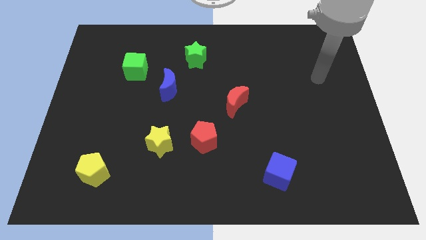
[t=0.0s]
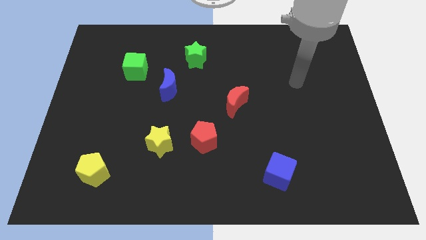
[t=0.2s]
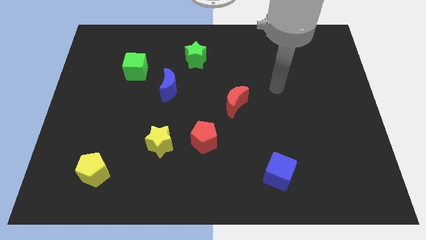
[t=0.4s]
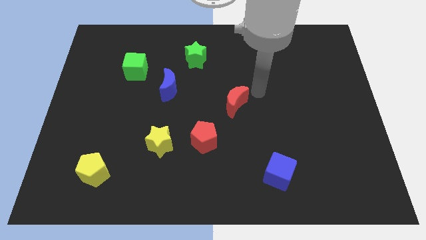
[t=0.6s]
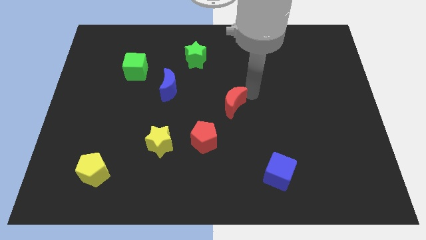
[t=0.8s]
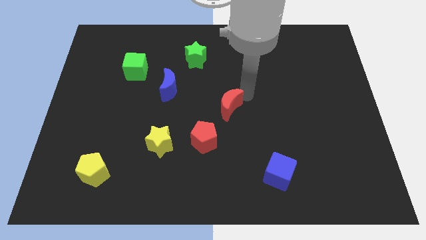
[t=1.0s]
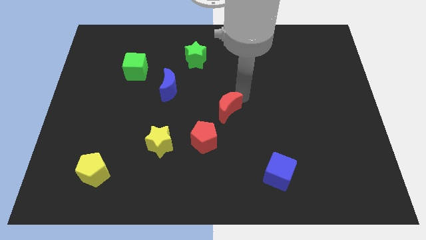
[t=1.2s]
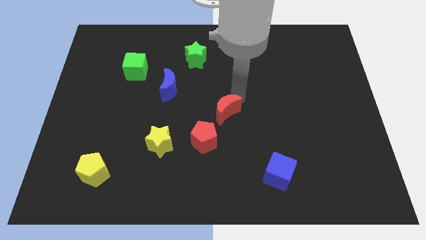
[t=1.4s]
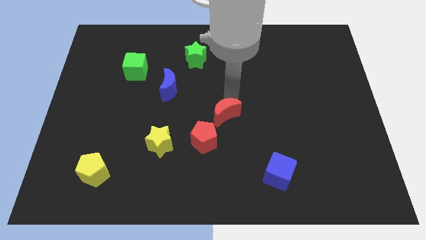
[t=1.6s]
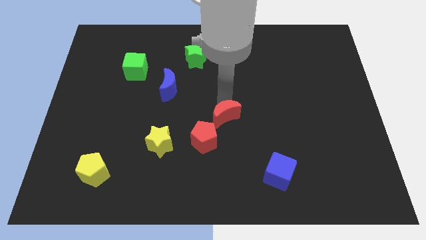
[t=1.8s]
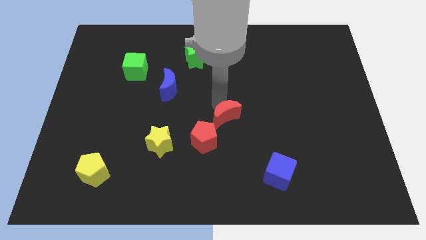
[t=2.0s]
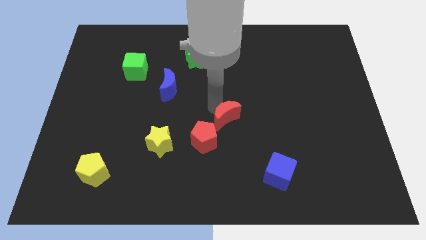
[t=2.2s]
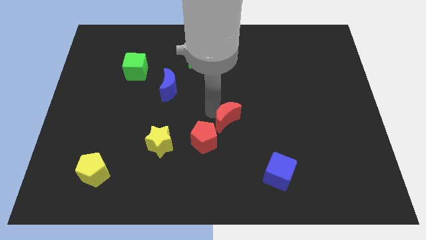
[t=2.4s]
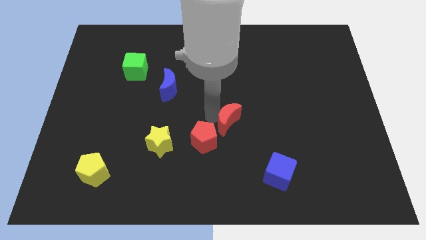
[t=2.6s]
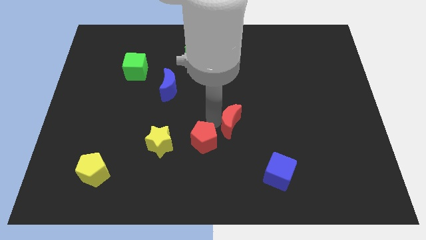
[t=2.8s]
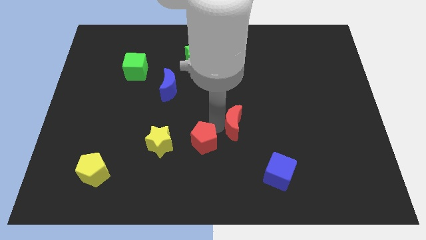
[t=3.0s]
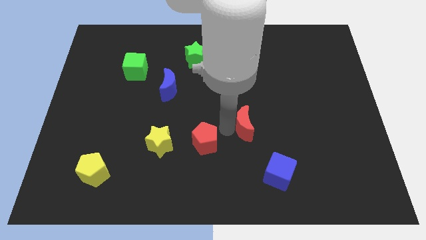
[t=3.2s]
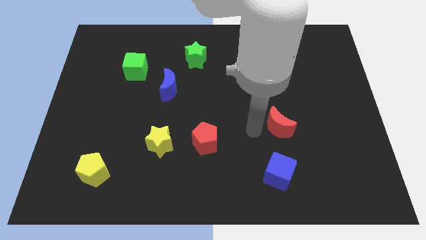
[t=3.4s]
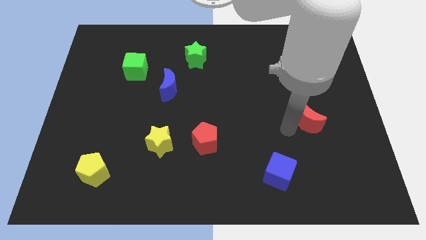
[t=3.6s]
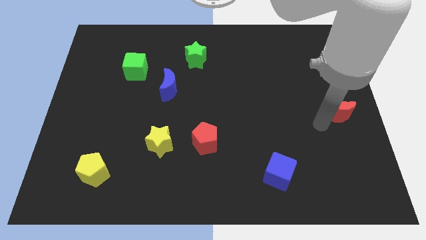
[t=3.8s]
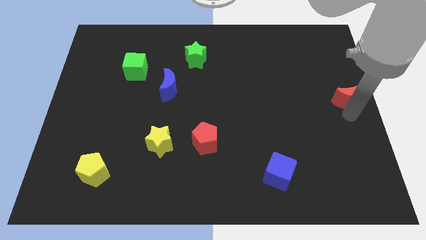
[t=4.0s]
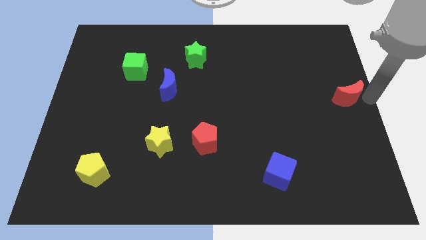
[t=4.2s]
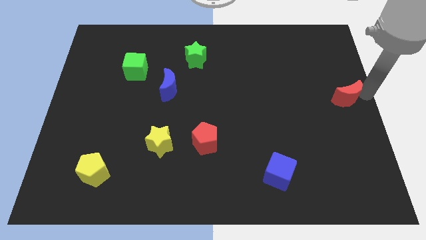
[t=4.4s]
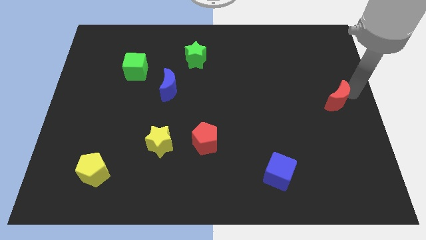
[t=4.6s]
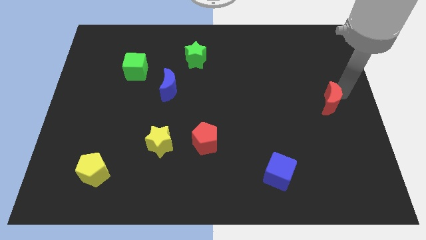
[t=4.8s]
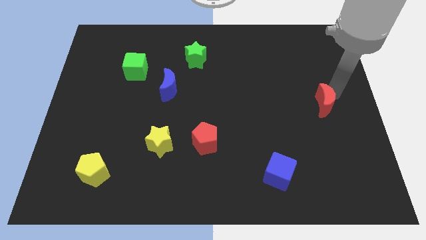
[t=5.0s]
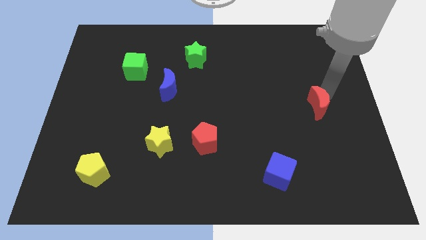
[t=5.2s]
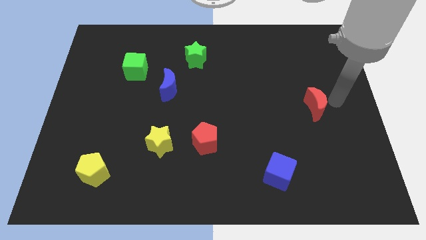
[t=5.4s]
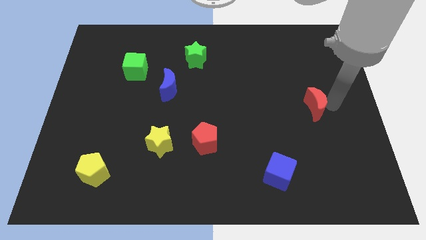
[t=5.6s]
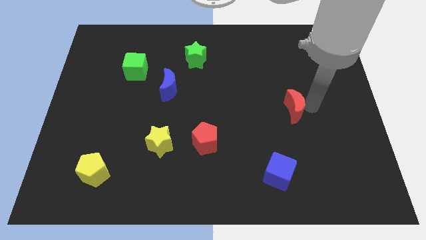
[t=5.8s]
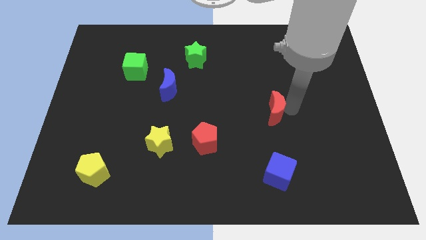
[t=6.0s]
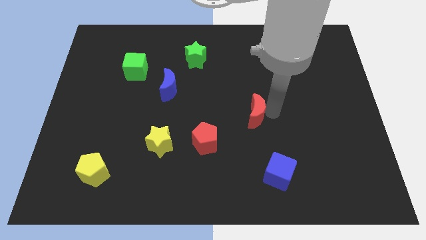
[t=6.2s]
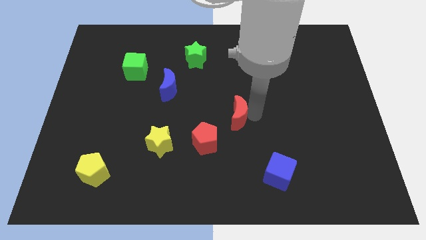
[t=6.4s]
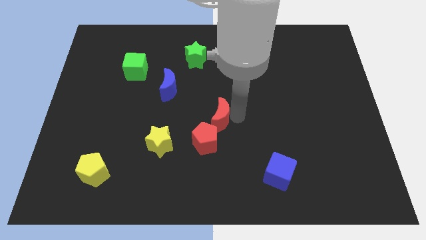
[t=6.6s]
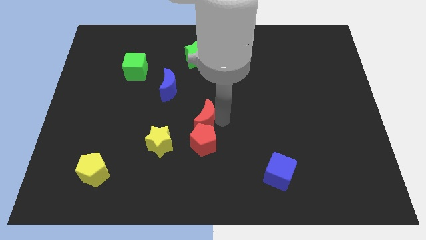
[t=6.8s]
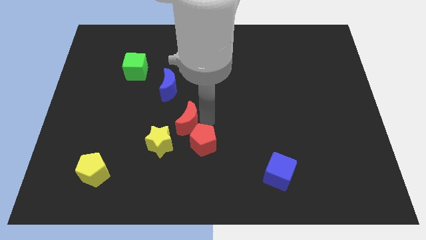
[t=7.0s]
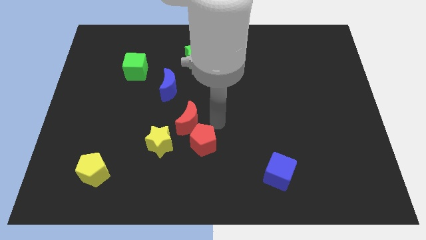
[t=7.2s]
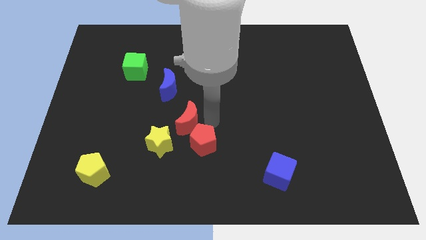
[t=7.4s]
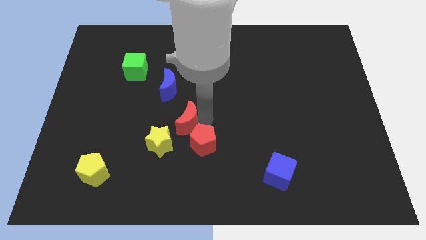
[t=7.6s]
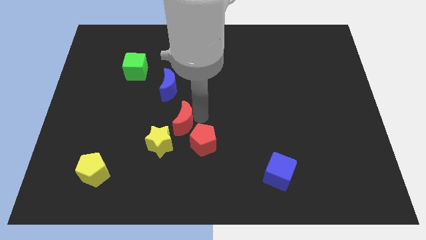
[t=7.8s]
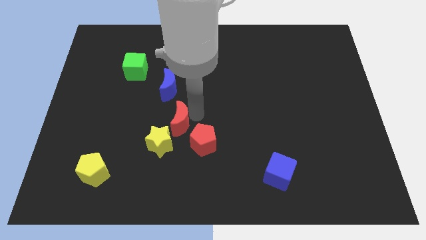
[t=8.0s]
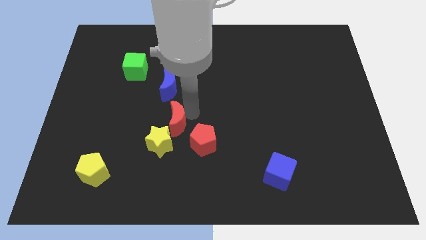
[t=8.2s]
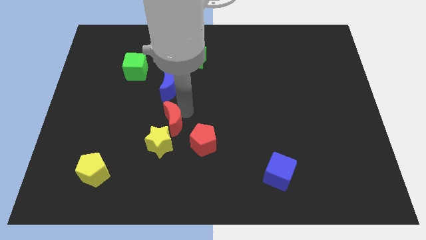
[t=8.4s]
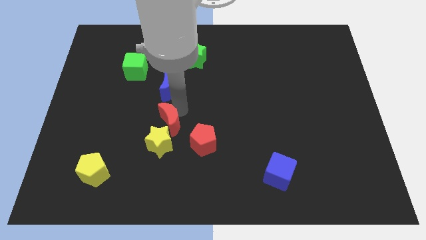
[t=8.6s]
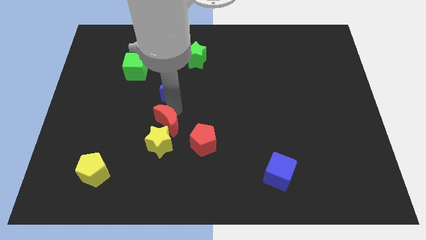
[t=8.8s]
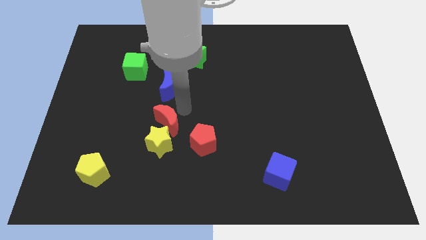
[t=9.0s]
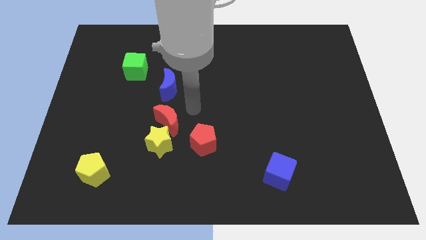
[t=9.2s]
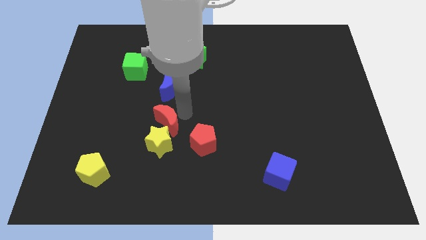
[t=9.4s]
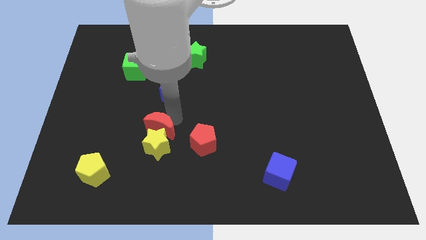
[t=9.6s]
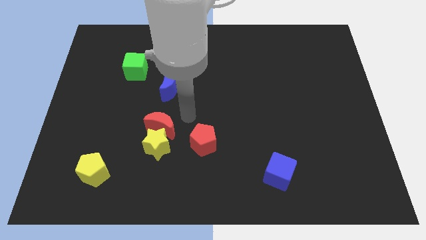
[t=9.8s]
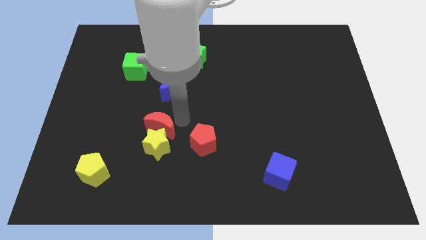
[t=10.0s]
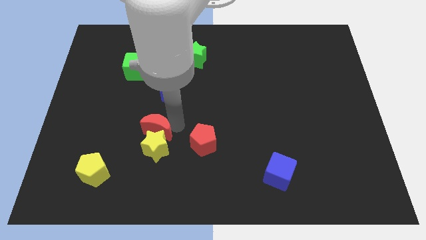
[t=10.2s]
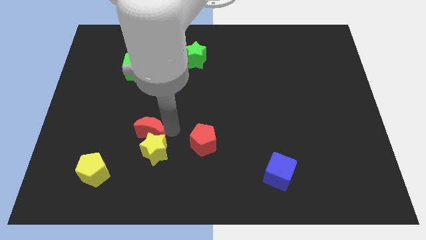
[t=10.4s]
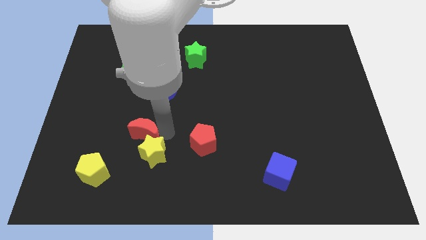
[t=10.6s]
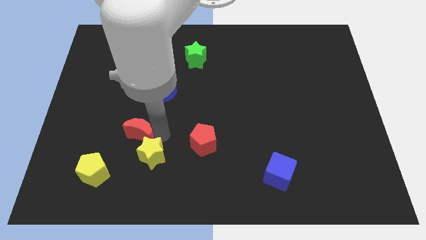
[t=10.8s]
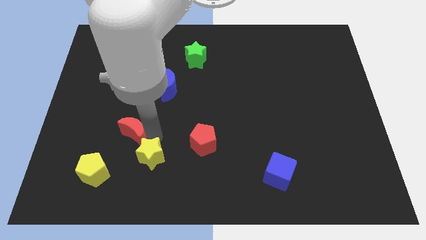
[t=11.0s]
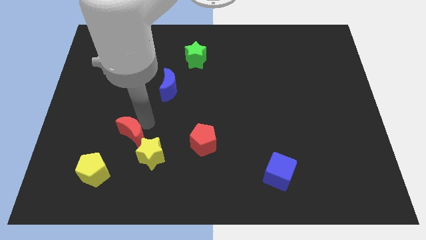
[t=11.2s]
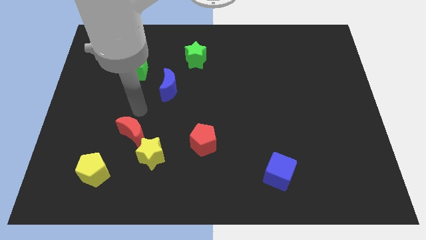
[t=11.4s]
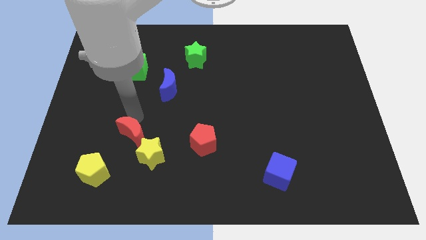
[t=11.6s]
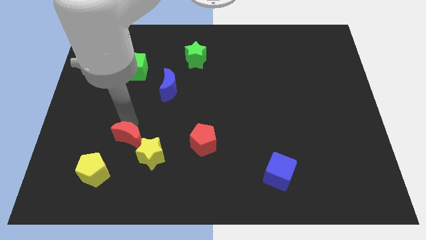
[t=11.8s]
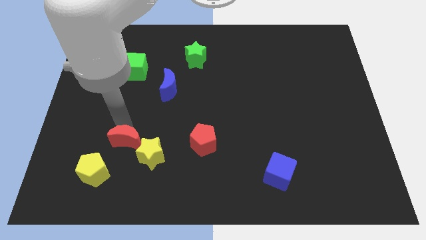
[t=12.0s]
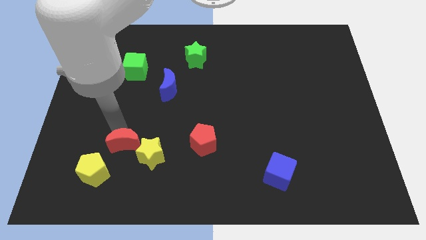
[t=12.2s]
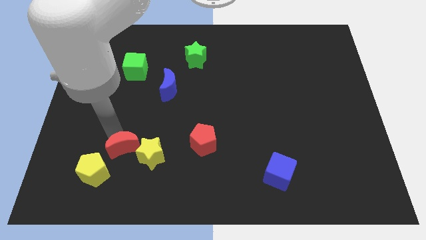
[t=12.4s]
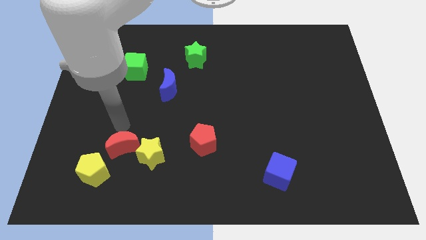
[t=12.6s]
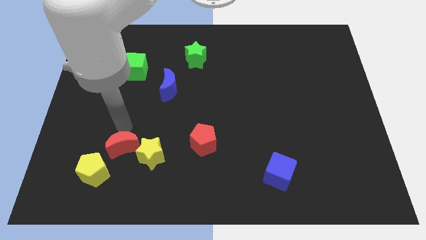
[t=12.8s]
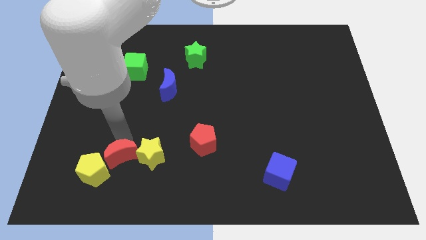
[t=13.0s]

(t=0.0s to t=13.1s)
move the red moon to the bottom left of the yellow star
